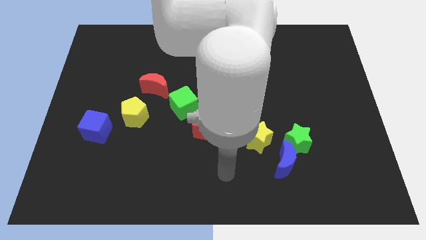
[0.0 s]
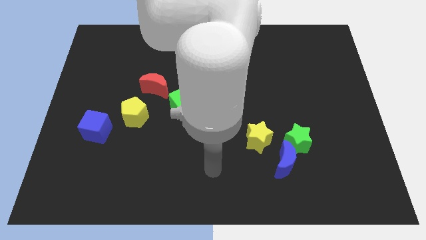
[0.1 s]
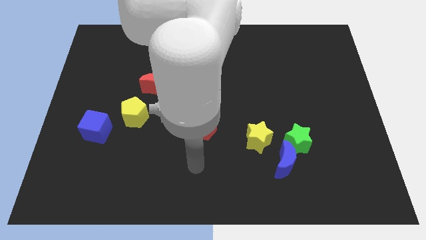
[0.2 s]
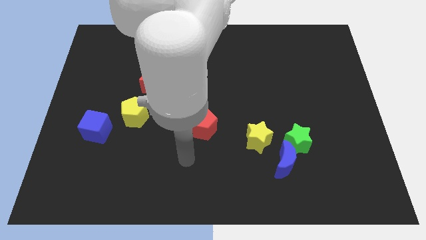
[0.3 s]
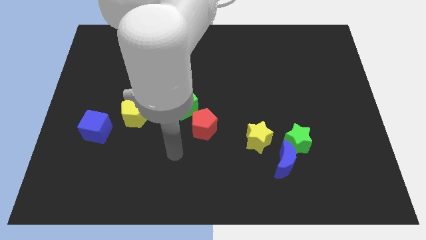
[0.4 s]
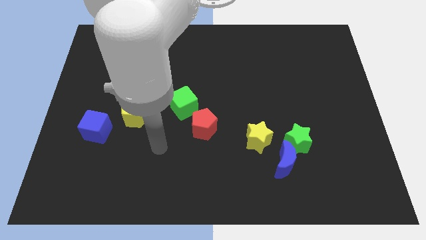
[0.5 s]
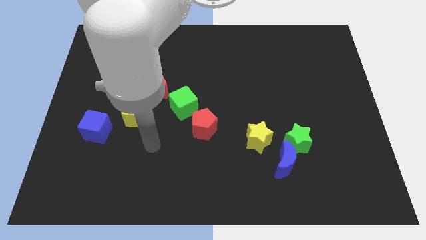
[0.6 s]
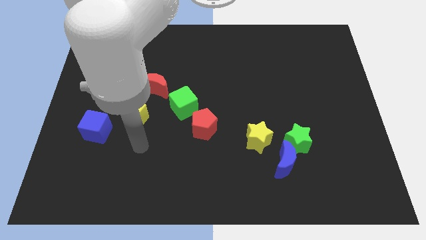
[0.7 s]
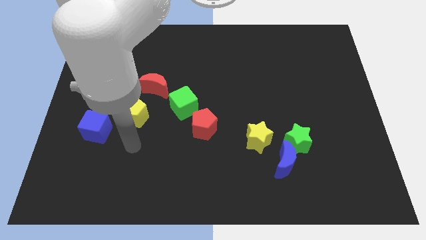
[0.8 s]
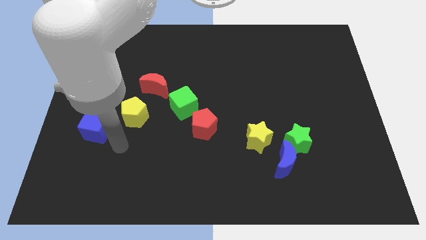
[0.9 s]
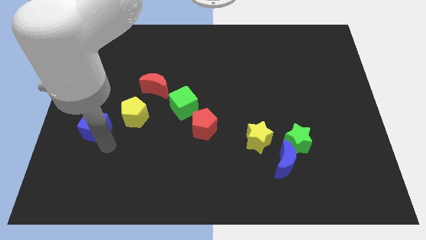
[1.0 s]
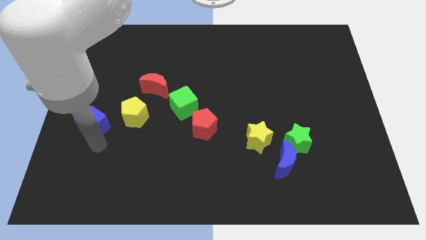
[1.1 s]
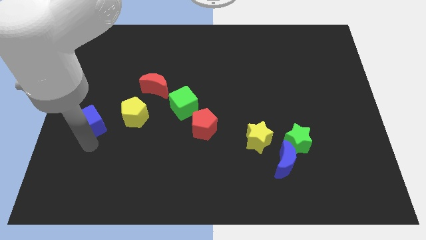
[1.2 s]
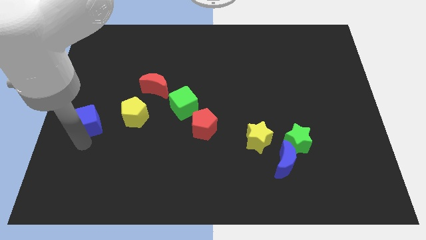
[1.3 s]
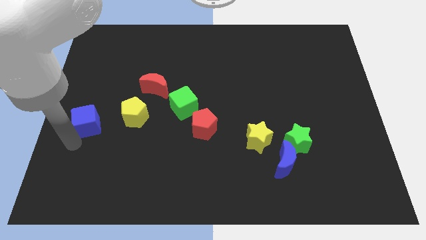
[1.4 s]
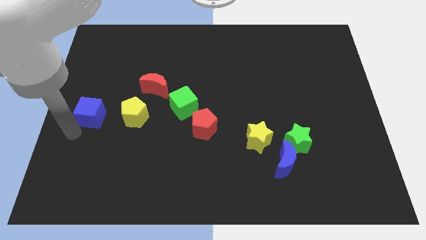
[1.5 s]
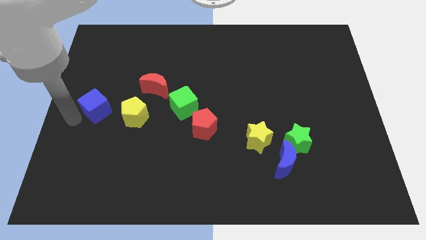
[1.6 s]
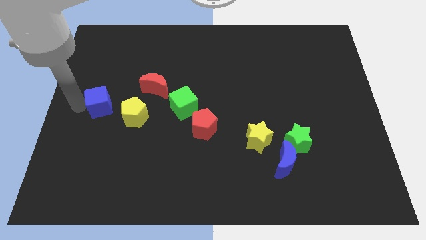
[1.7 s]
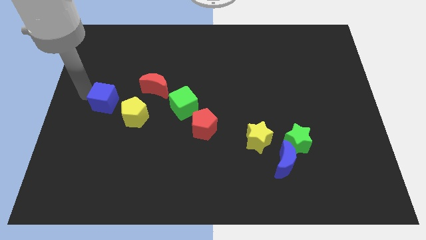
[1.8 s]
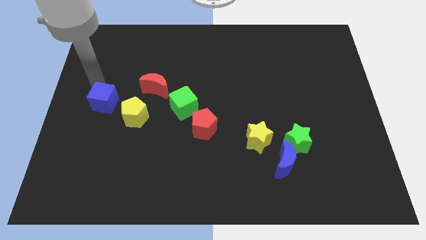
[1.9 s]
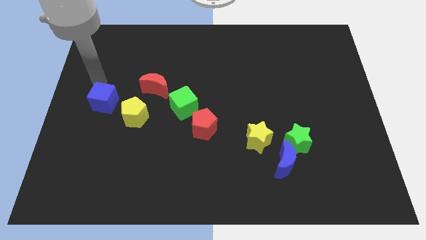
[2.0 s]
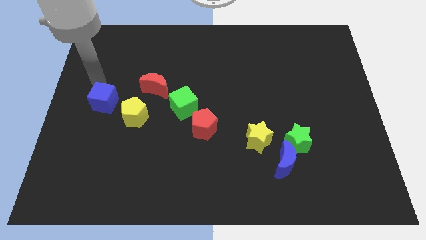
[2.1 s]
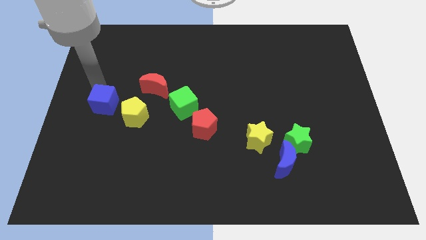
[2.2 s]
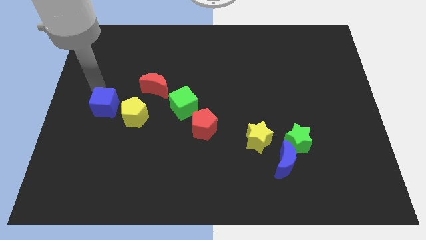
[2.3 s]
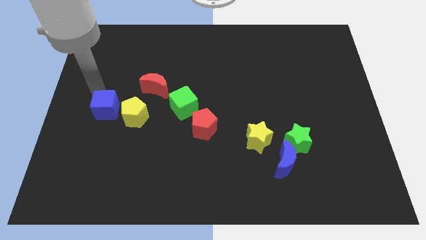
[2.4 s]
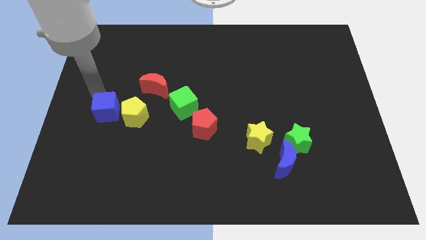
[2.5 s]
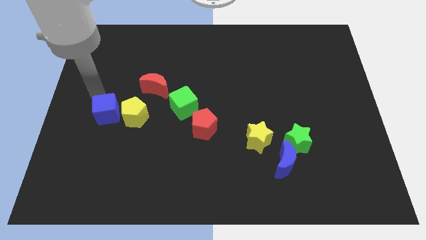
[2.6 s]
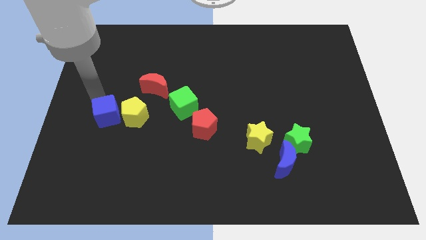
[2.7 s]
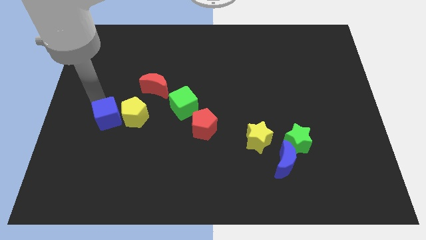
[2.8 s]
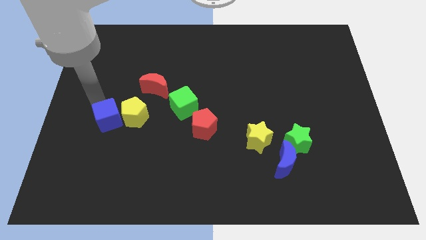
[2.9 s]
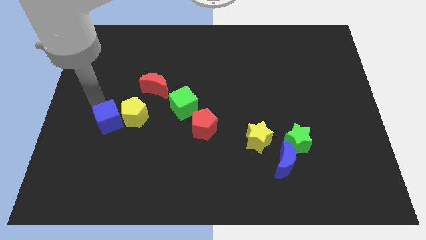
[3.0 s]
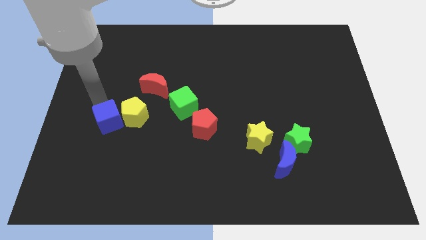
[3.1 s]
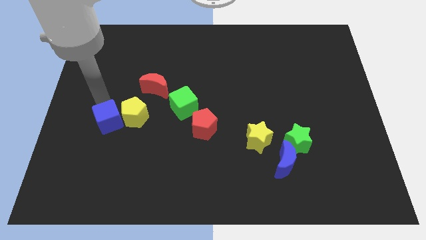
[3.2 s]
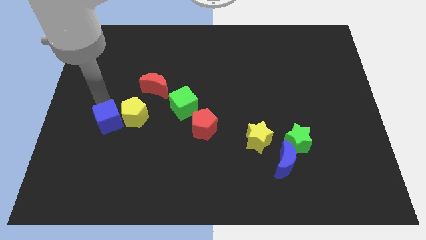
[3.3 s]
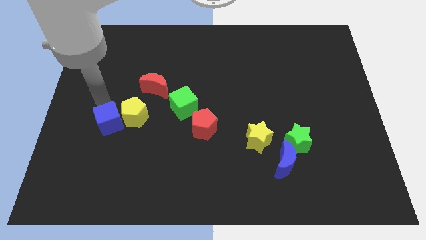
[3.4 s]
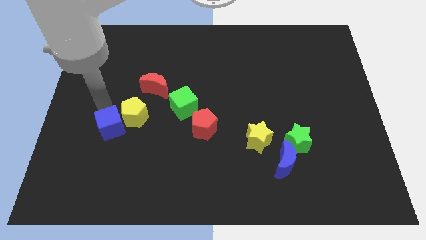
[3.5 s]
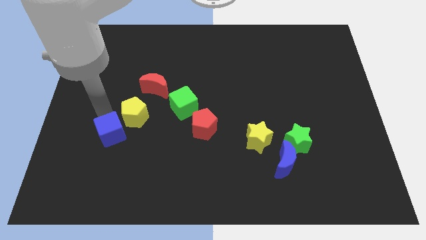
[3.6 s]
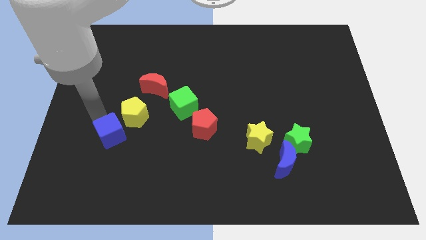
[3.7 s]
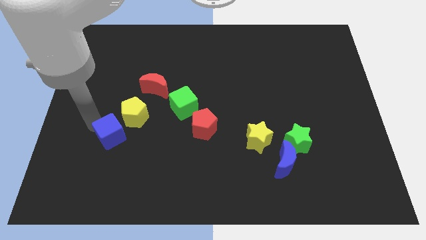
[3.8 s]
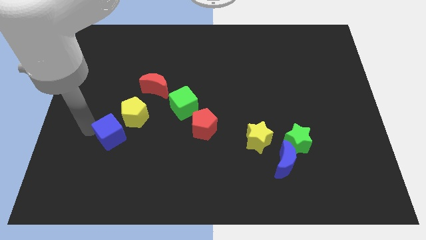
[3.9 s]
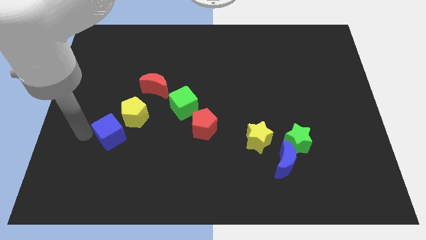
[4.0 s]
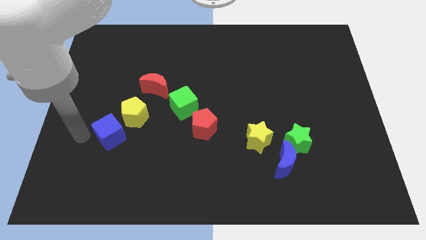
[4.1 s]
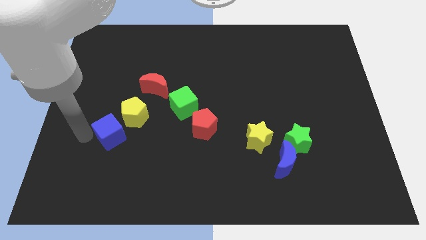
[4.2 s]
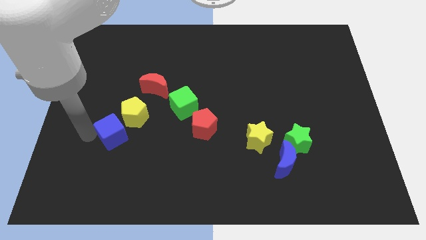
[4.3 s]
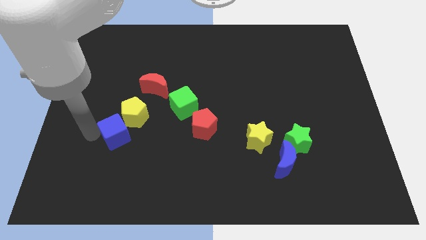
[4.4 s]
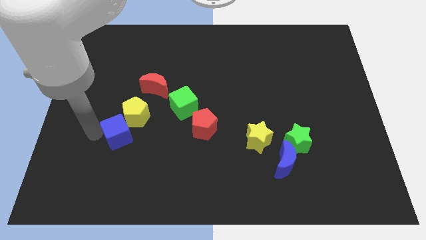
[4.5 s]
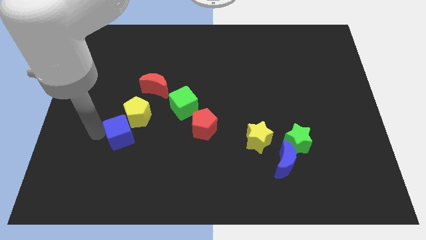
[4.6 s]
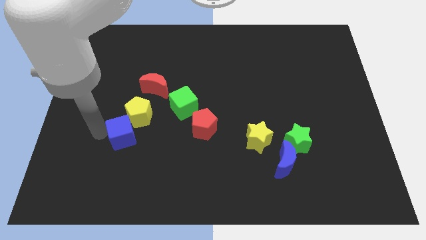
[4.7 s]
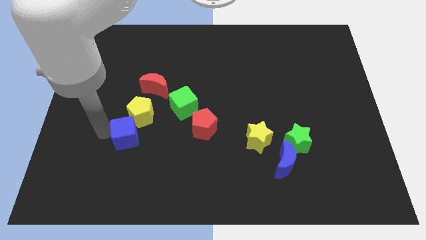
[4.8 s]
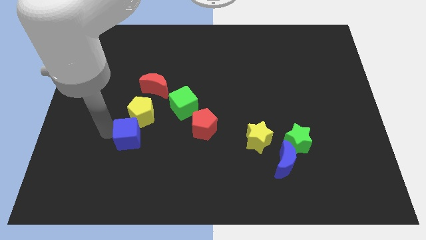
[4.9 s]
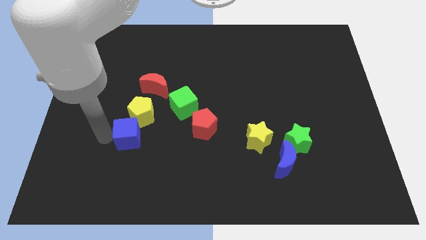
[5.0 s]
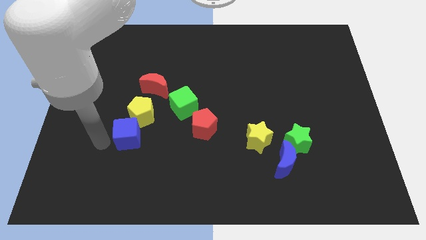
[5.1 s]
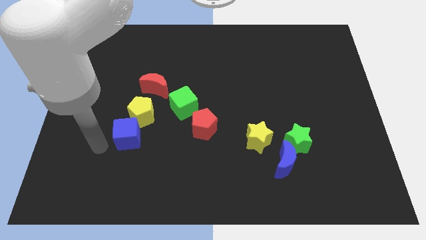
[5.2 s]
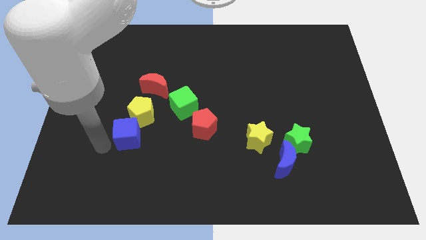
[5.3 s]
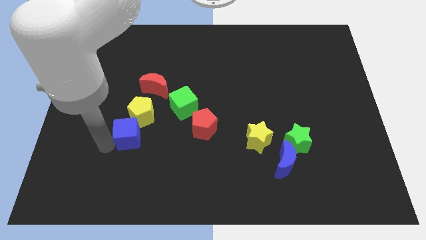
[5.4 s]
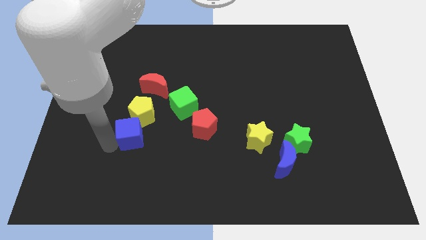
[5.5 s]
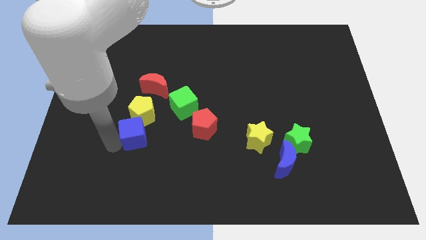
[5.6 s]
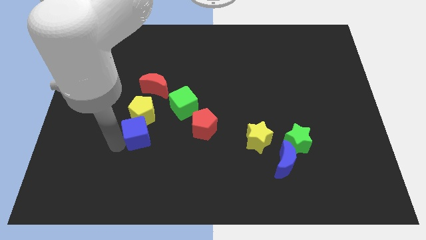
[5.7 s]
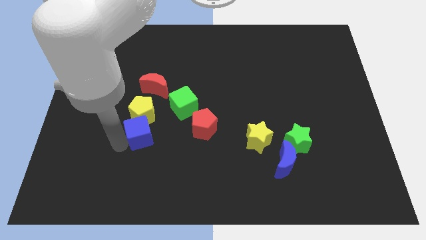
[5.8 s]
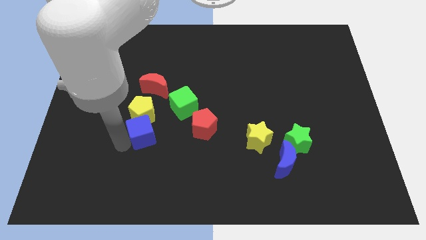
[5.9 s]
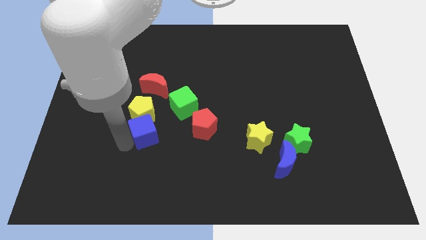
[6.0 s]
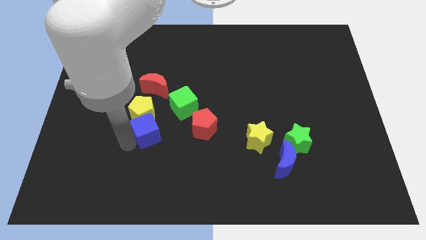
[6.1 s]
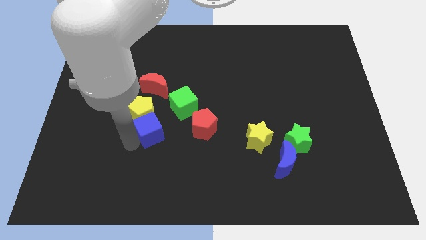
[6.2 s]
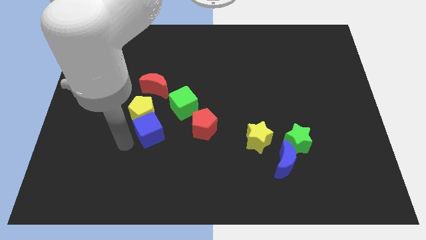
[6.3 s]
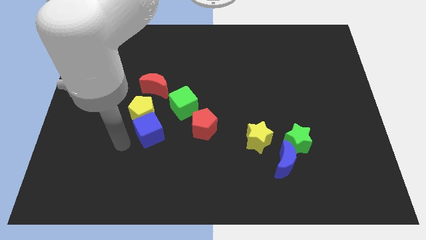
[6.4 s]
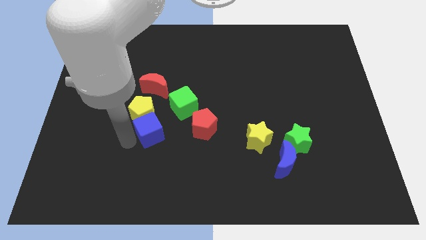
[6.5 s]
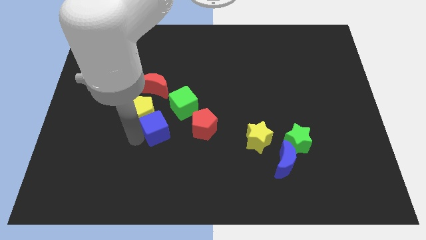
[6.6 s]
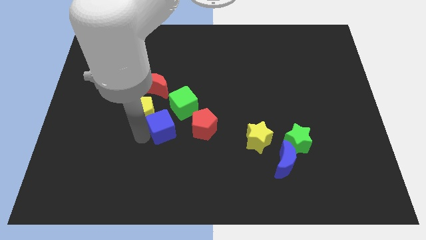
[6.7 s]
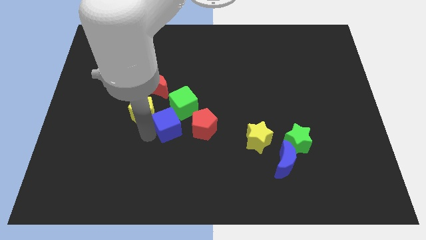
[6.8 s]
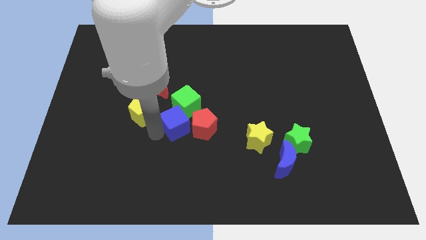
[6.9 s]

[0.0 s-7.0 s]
slide the blue cube to the green cube

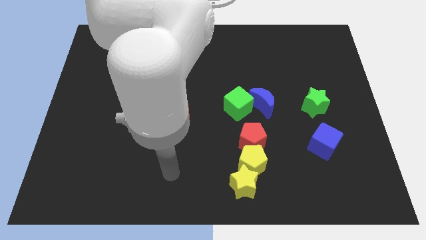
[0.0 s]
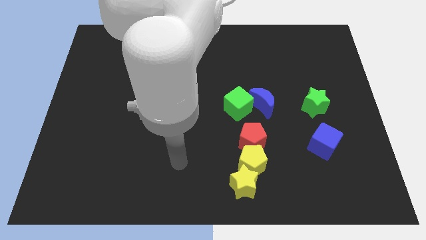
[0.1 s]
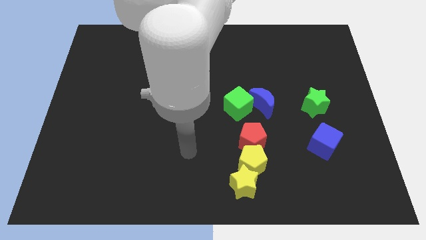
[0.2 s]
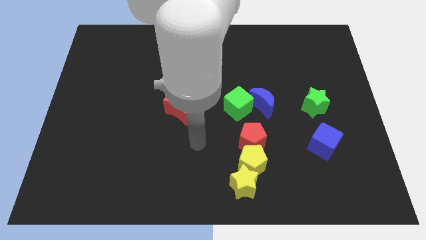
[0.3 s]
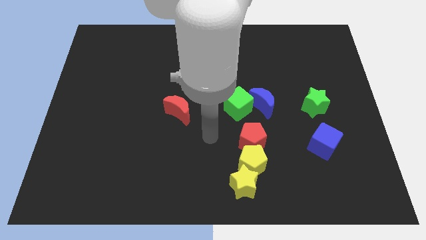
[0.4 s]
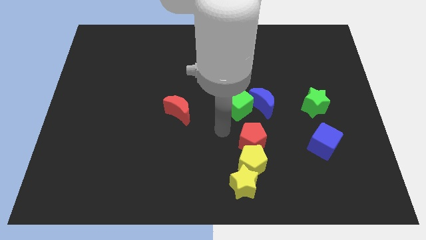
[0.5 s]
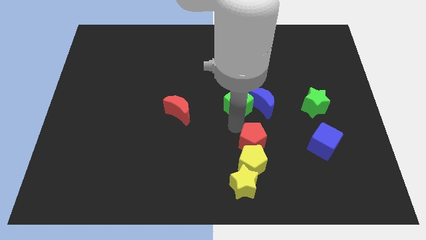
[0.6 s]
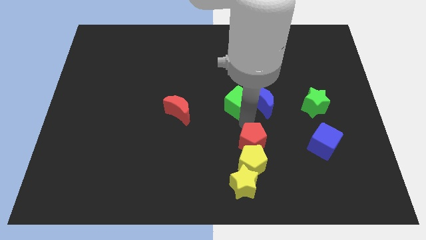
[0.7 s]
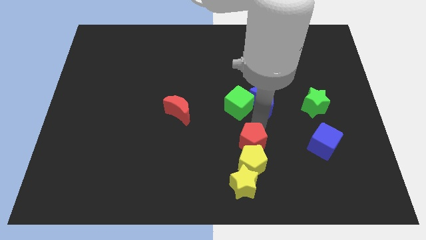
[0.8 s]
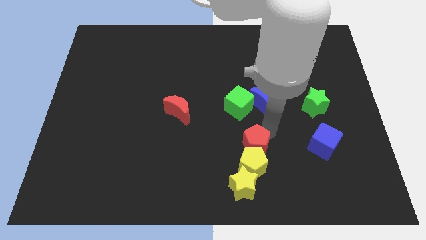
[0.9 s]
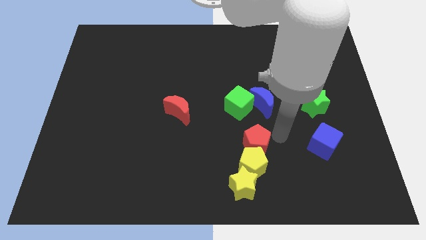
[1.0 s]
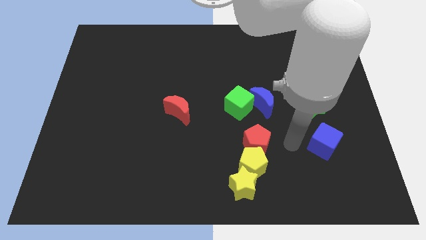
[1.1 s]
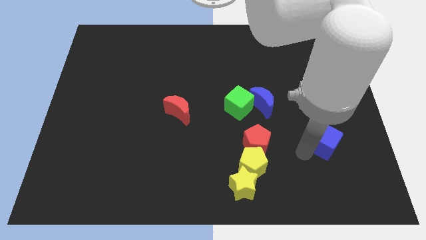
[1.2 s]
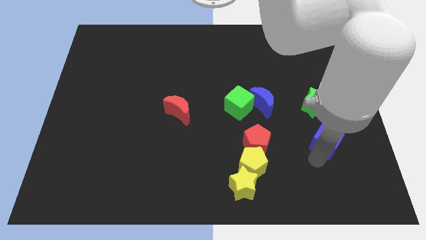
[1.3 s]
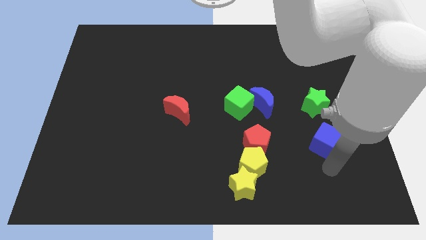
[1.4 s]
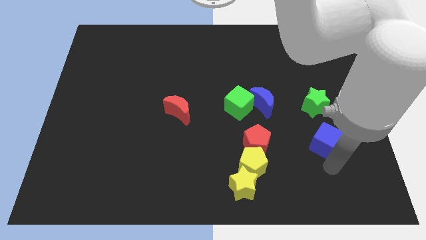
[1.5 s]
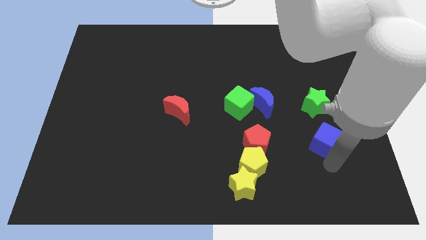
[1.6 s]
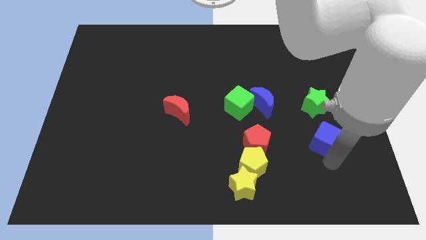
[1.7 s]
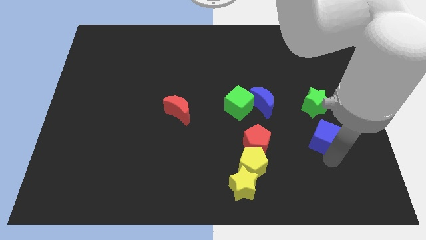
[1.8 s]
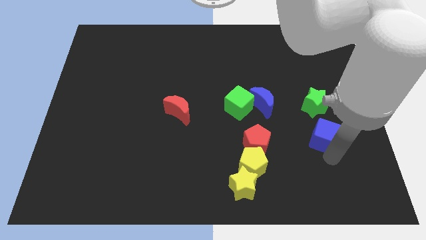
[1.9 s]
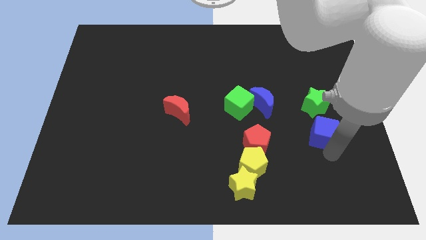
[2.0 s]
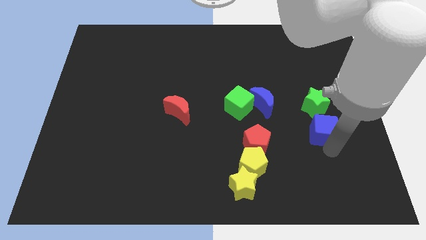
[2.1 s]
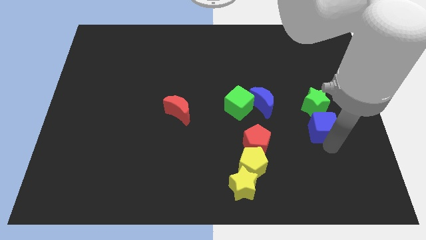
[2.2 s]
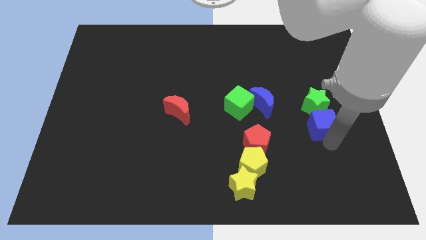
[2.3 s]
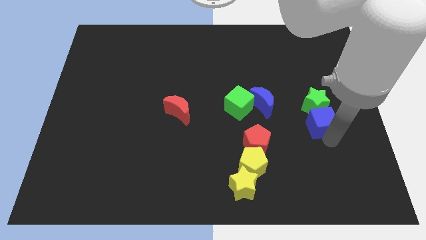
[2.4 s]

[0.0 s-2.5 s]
push the blue cube next to the green star
